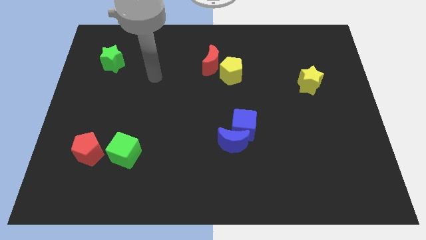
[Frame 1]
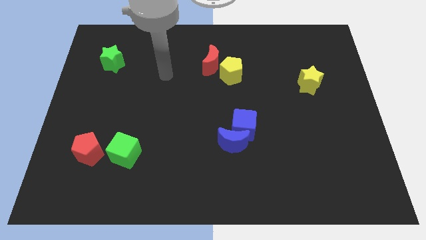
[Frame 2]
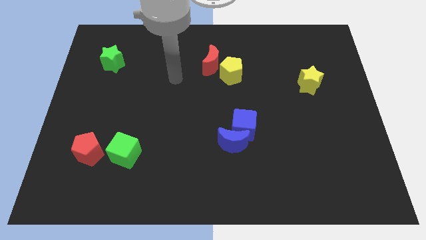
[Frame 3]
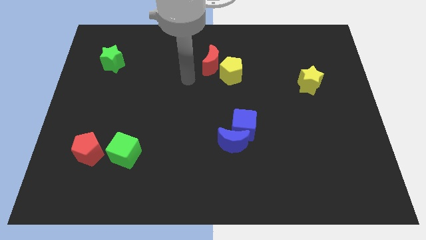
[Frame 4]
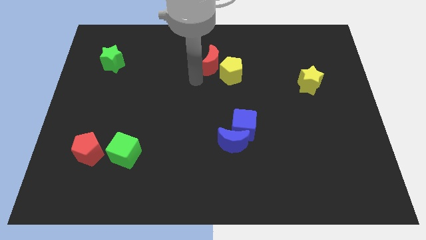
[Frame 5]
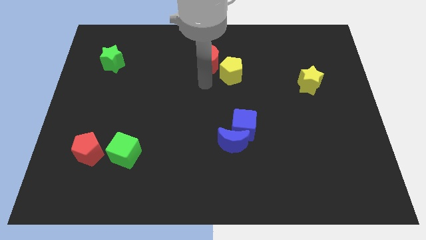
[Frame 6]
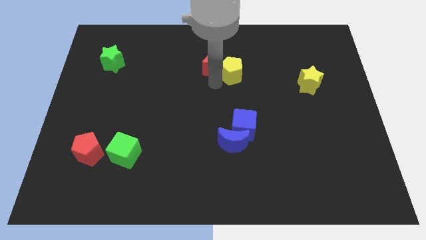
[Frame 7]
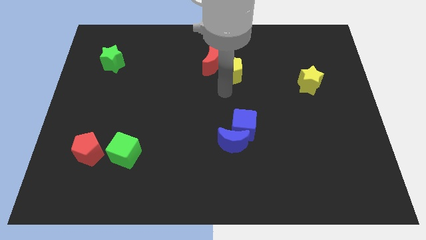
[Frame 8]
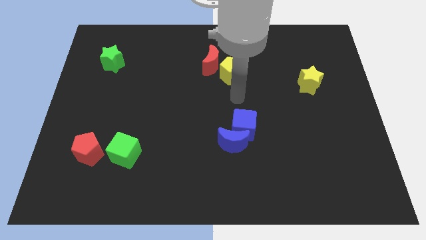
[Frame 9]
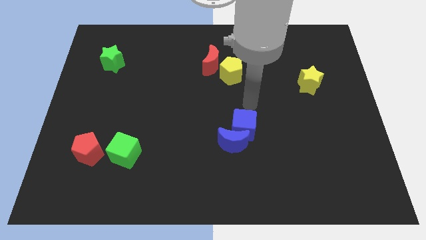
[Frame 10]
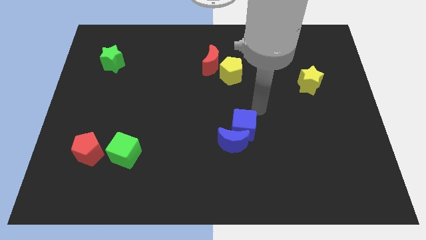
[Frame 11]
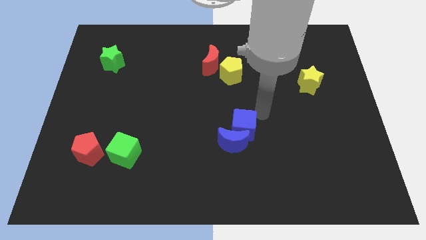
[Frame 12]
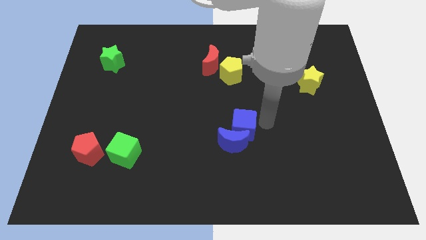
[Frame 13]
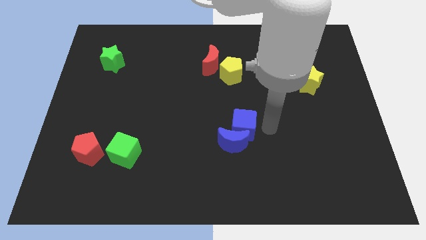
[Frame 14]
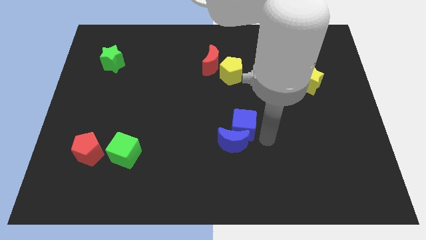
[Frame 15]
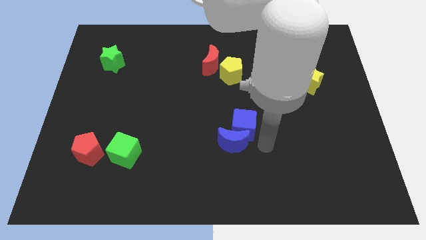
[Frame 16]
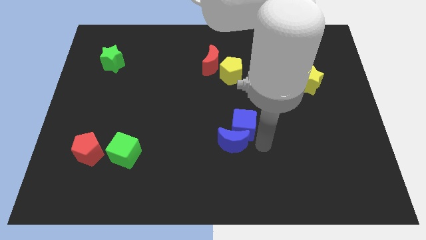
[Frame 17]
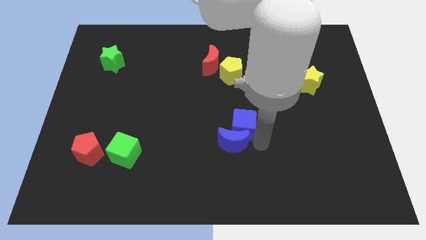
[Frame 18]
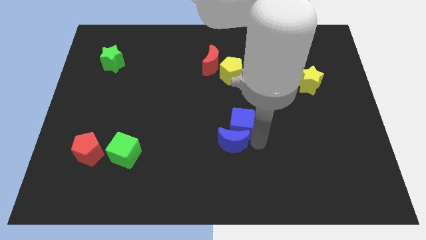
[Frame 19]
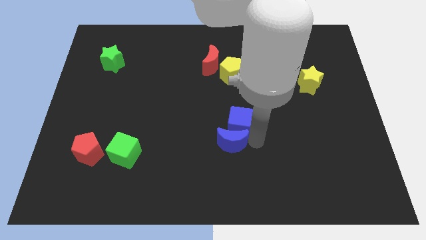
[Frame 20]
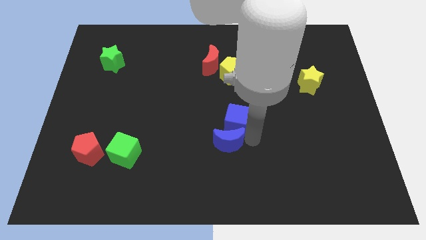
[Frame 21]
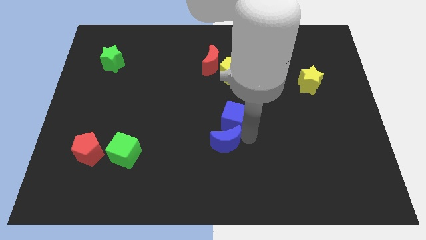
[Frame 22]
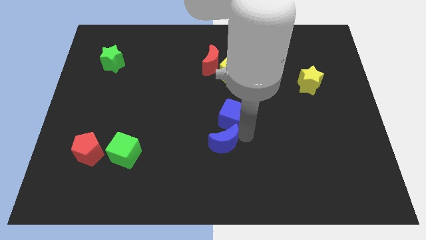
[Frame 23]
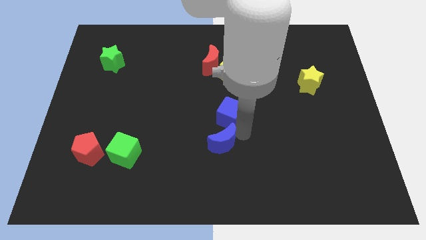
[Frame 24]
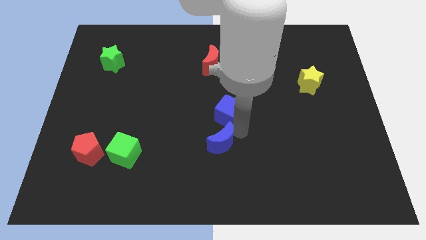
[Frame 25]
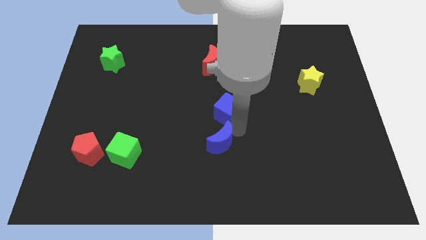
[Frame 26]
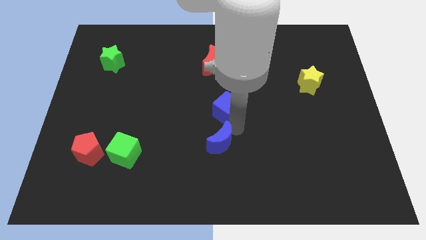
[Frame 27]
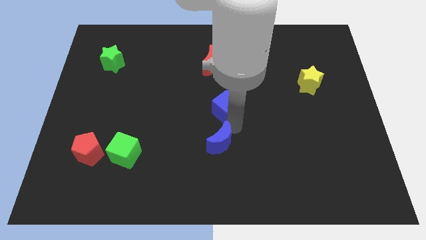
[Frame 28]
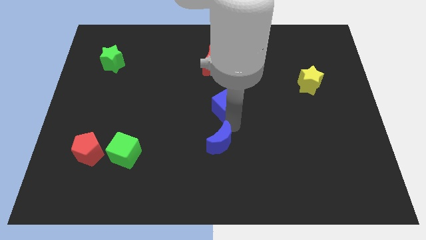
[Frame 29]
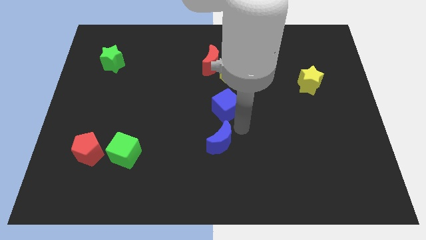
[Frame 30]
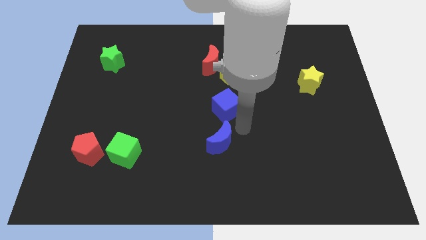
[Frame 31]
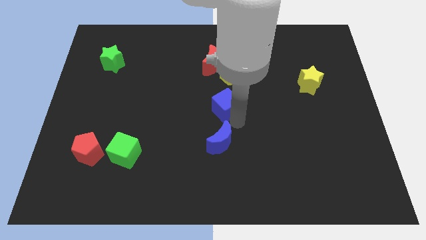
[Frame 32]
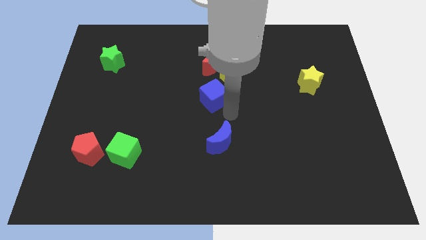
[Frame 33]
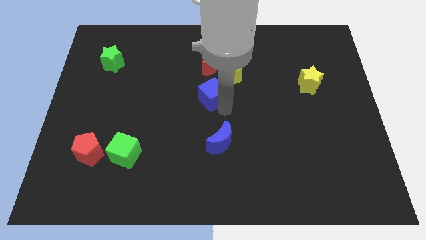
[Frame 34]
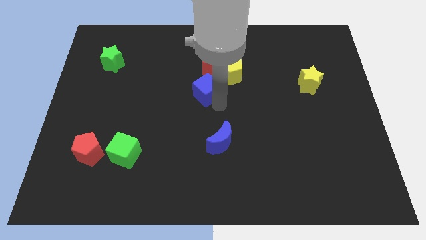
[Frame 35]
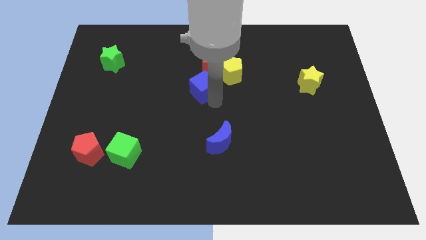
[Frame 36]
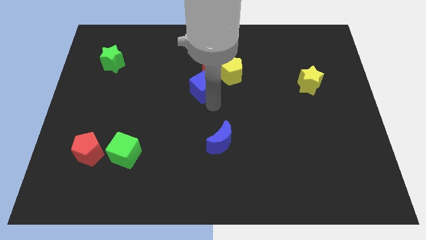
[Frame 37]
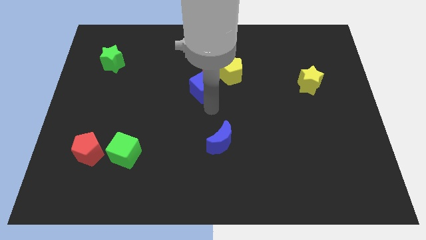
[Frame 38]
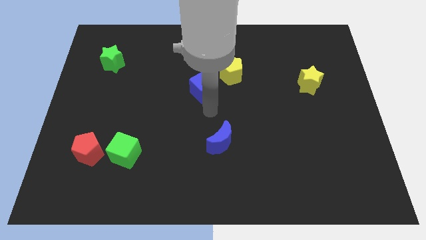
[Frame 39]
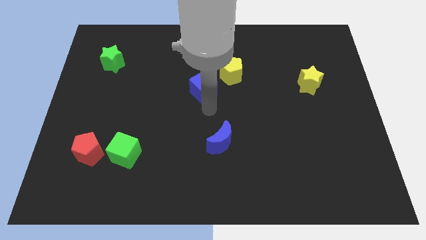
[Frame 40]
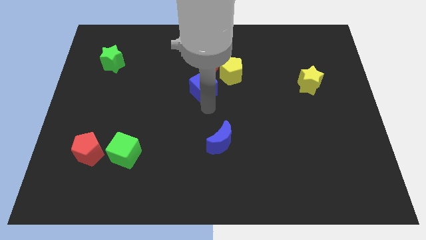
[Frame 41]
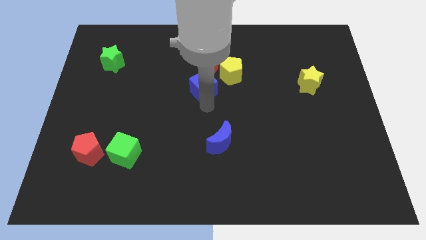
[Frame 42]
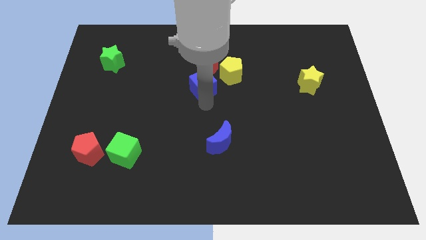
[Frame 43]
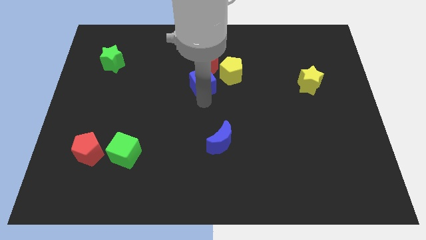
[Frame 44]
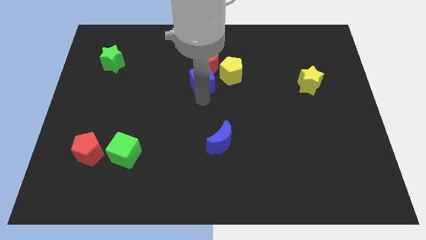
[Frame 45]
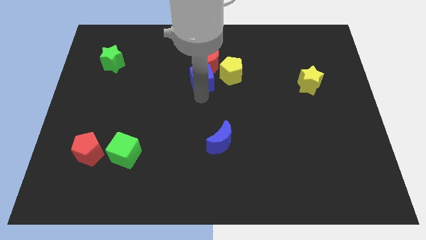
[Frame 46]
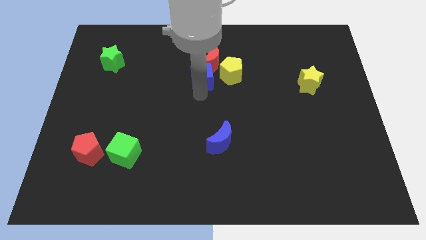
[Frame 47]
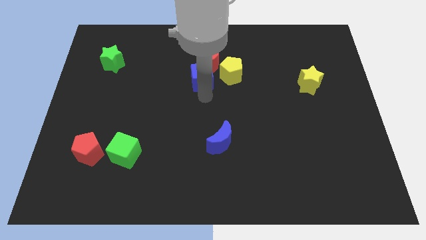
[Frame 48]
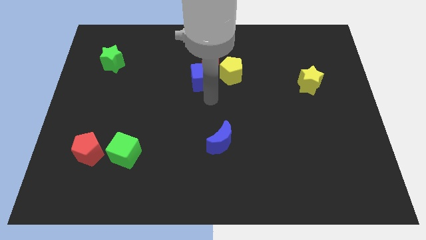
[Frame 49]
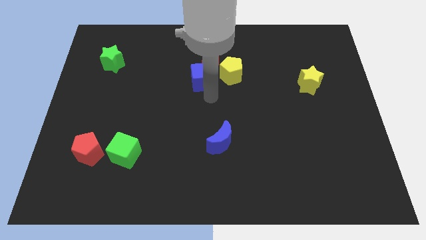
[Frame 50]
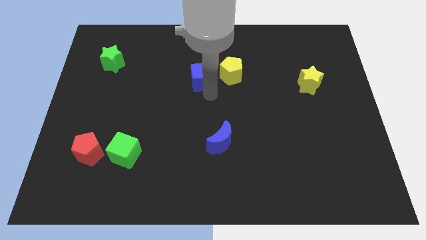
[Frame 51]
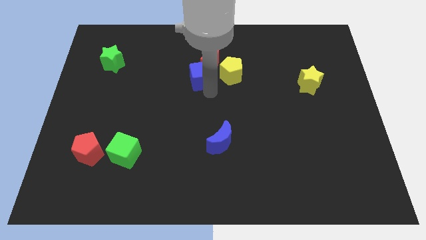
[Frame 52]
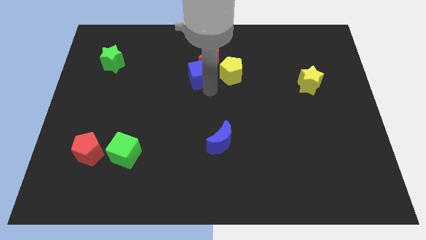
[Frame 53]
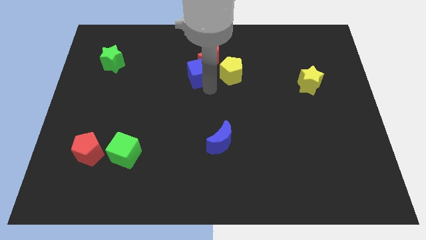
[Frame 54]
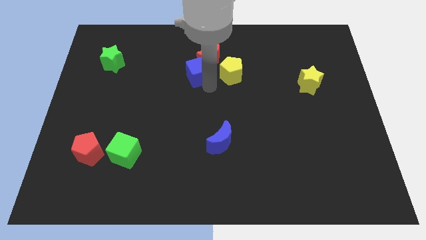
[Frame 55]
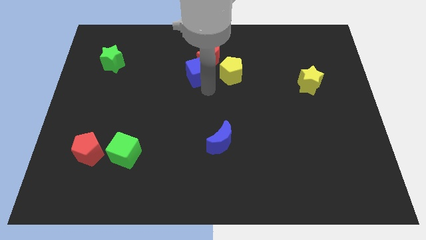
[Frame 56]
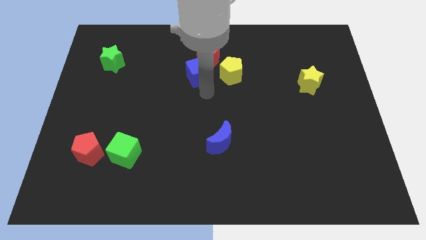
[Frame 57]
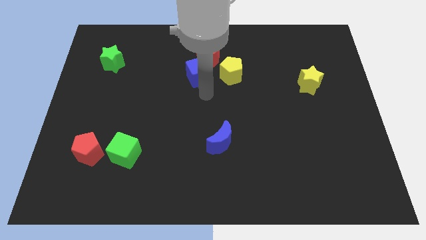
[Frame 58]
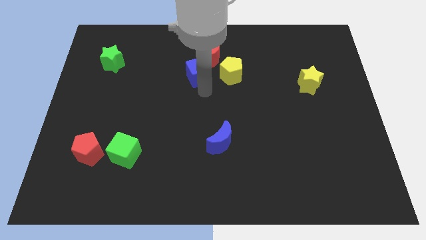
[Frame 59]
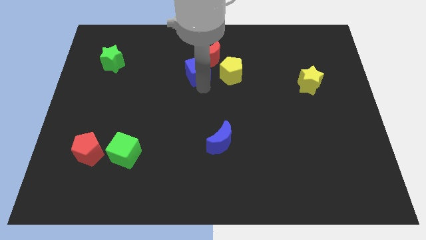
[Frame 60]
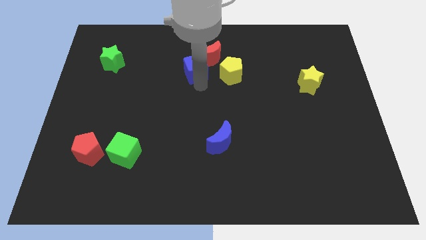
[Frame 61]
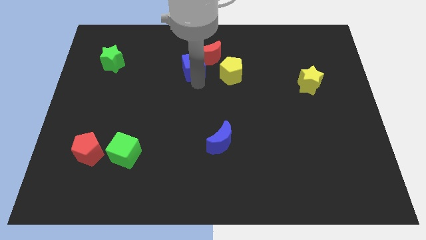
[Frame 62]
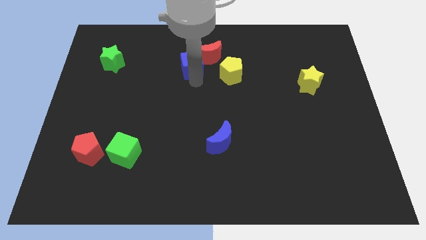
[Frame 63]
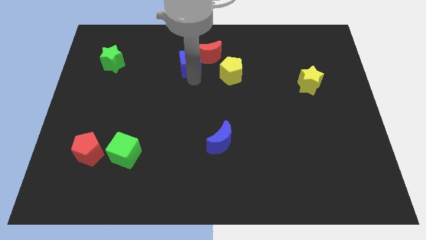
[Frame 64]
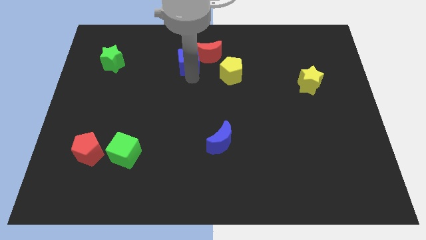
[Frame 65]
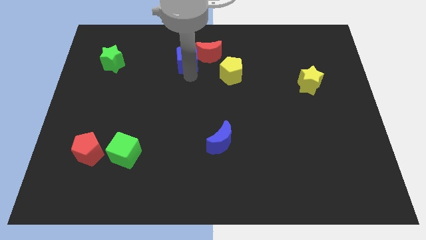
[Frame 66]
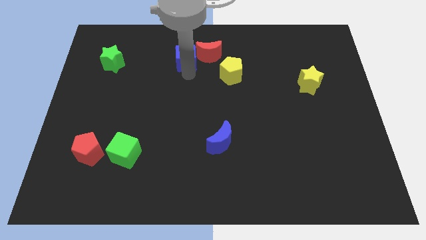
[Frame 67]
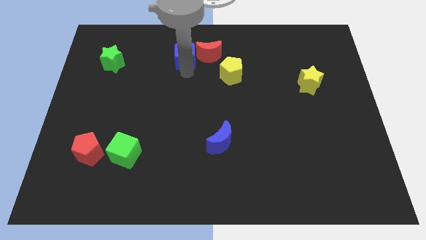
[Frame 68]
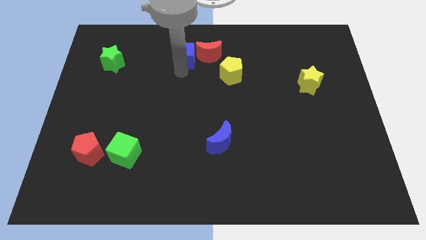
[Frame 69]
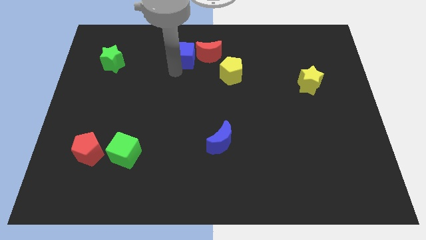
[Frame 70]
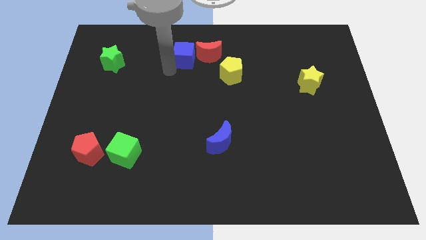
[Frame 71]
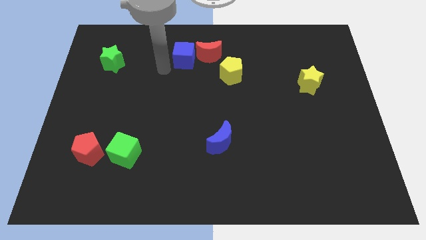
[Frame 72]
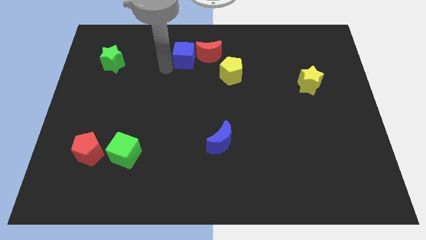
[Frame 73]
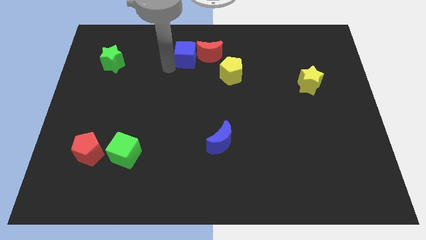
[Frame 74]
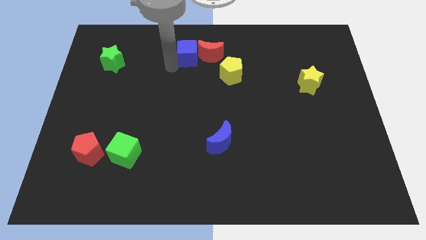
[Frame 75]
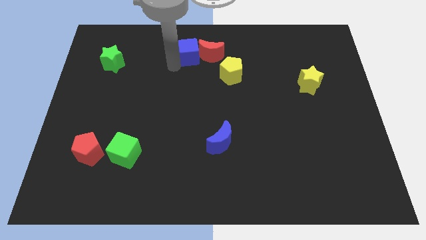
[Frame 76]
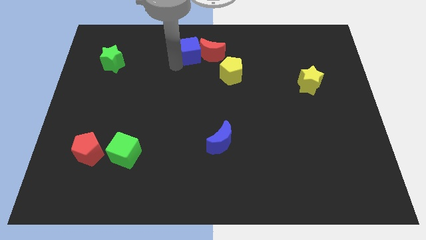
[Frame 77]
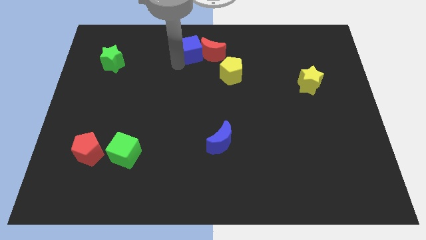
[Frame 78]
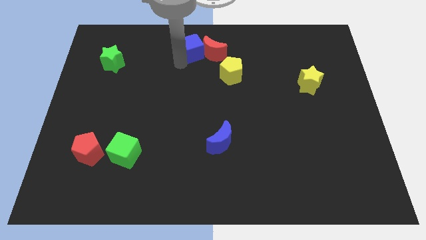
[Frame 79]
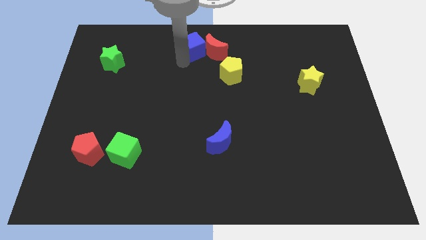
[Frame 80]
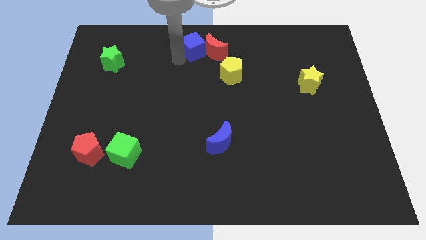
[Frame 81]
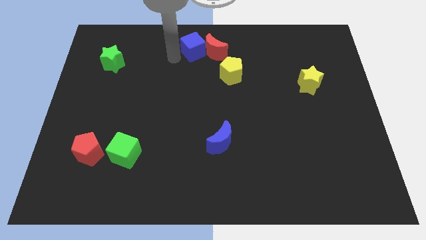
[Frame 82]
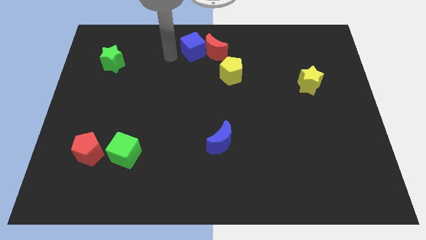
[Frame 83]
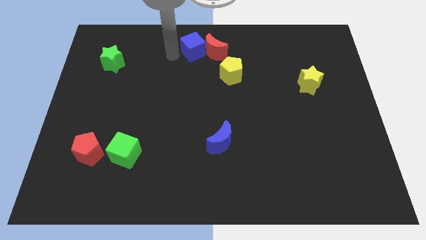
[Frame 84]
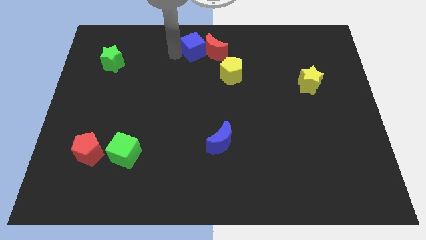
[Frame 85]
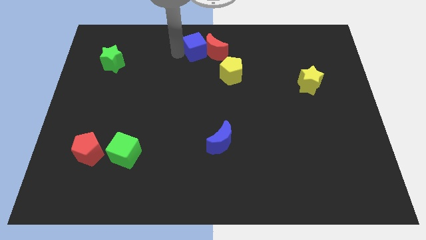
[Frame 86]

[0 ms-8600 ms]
move the blue cube diagonally up and to the left of the yellow pentagon
